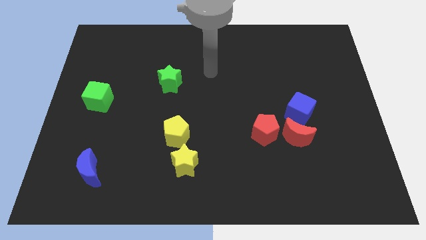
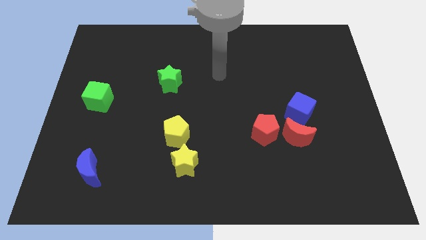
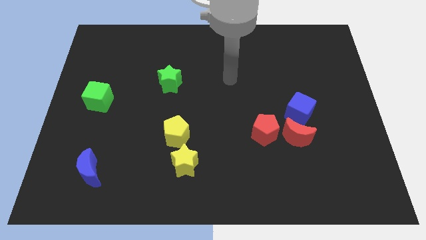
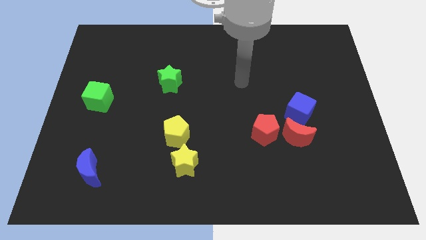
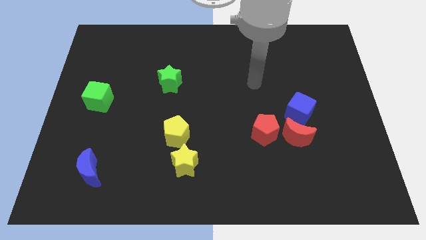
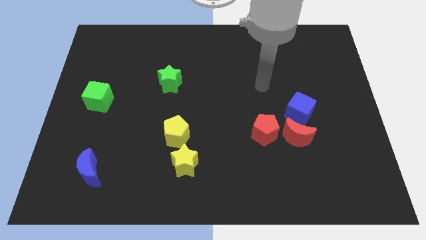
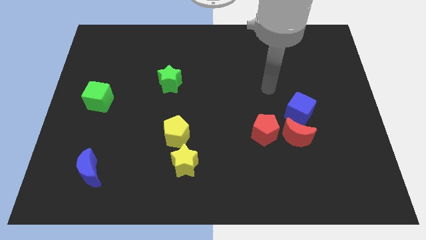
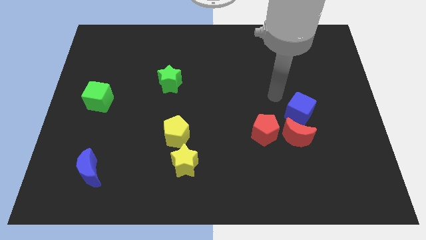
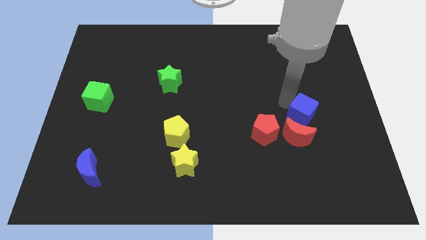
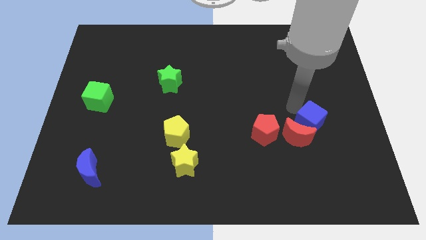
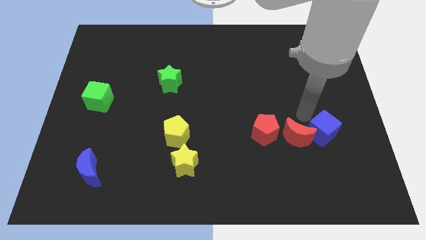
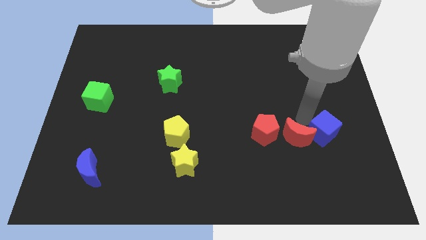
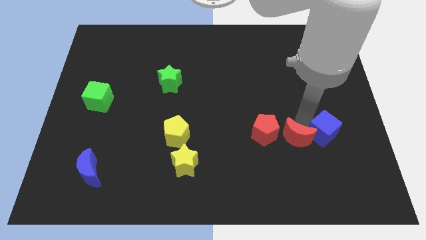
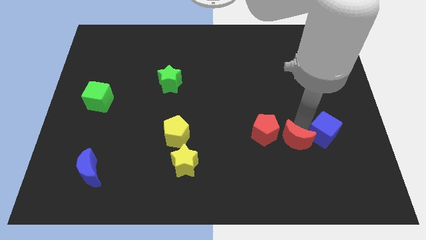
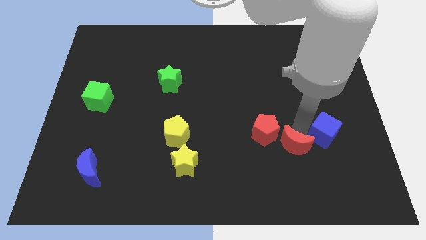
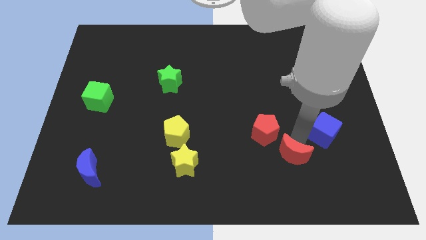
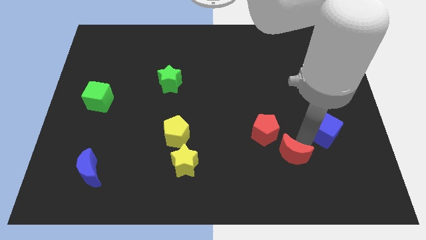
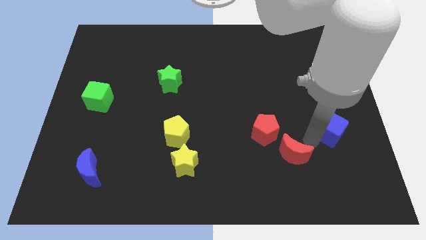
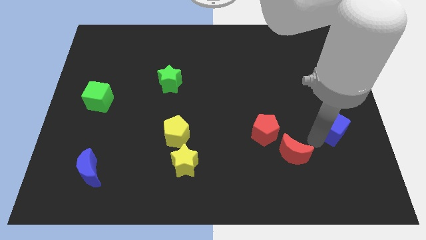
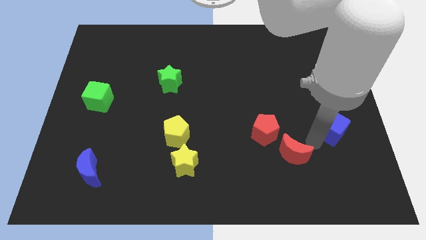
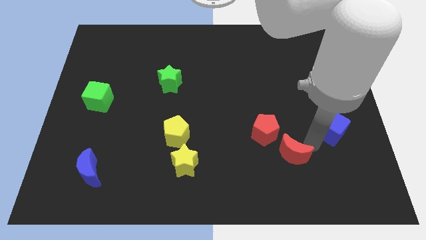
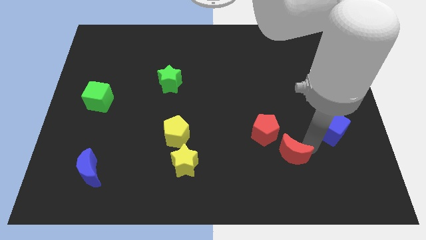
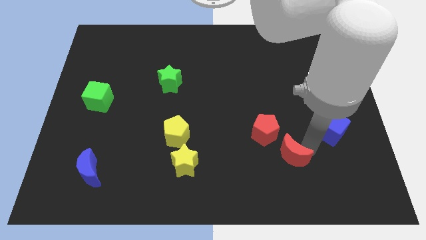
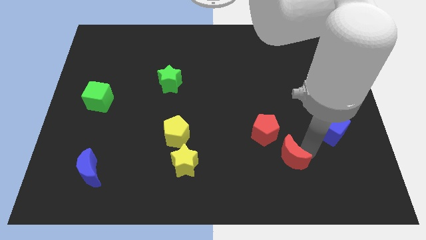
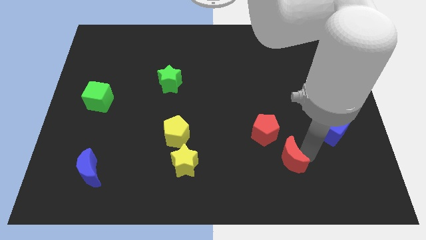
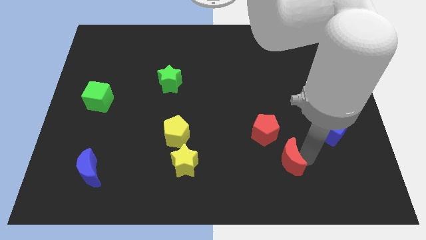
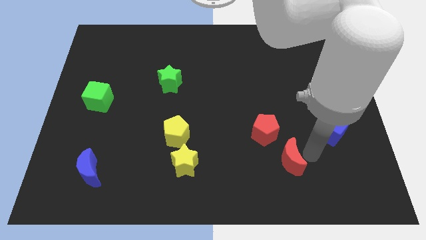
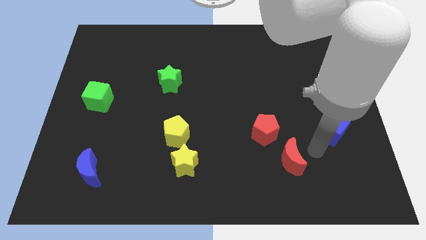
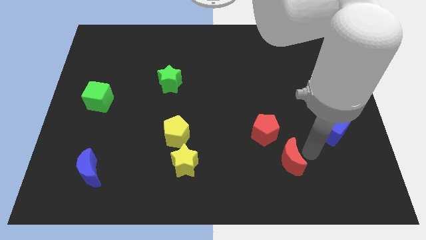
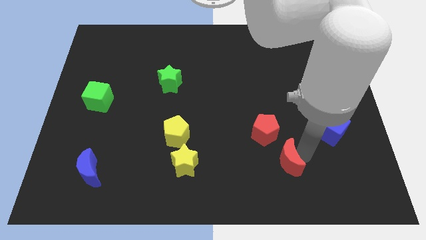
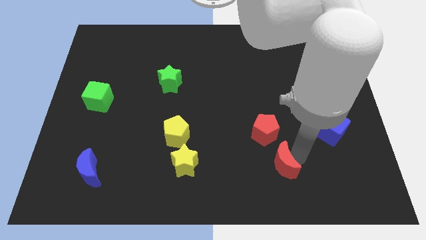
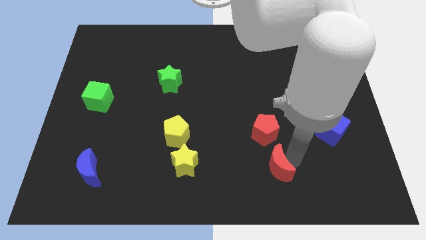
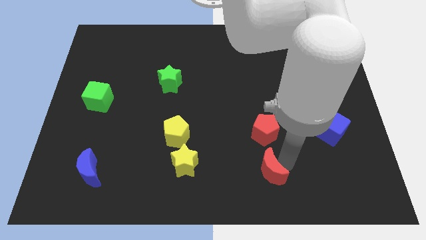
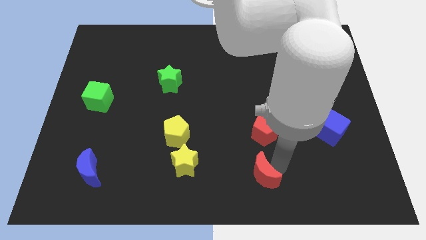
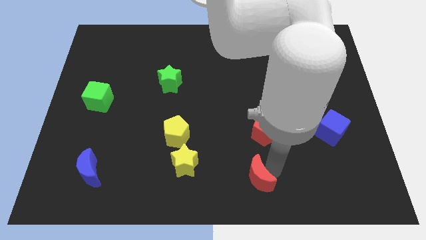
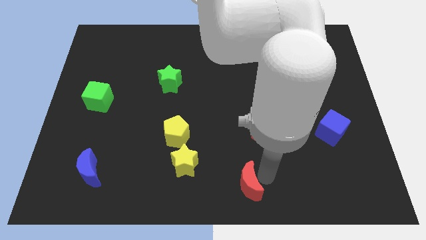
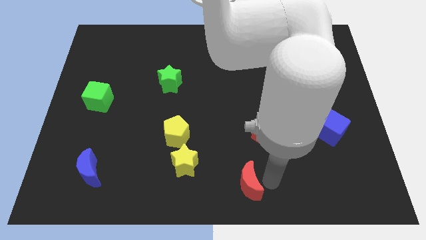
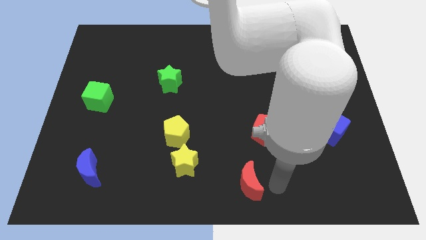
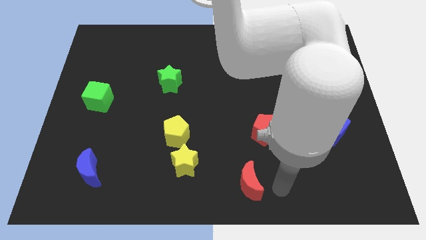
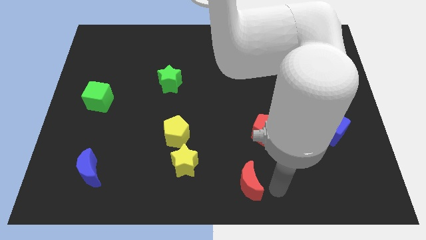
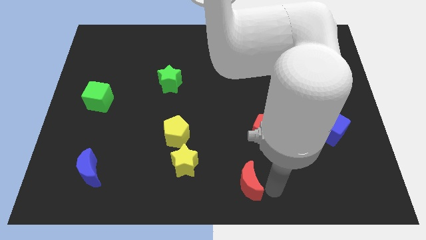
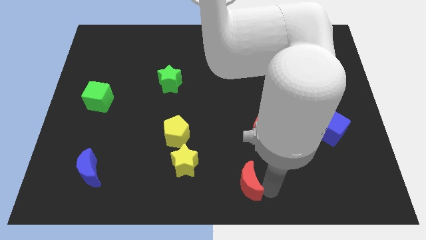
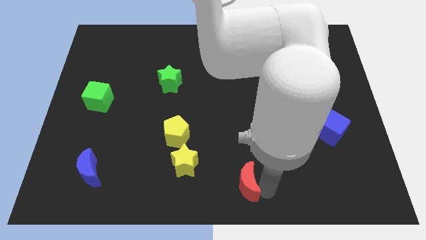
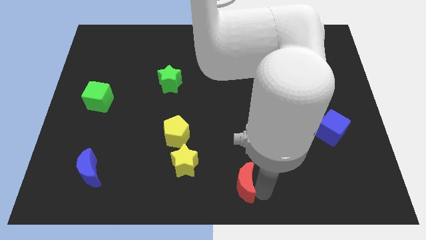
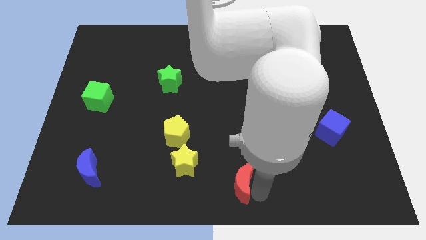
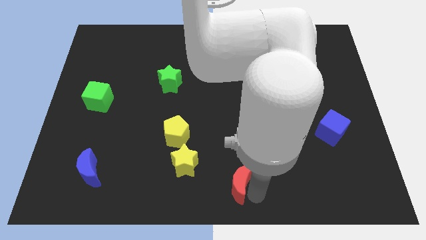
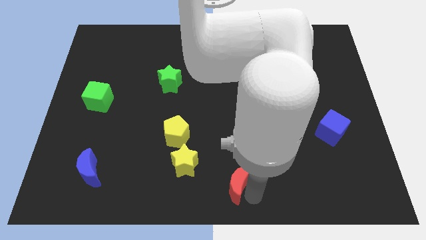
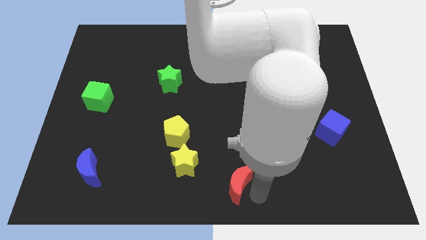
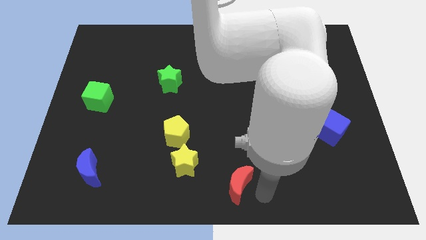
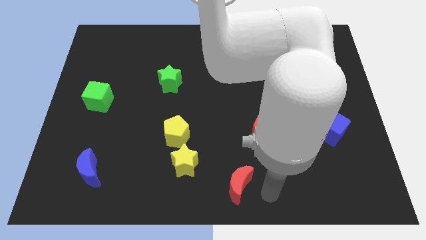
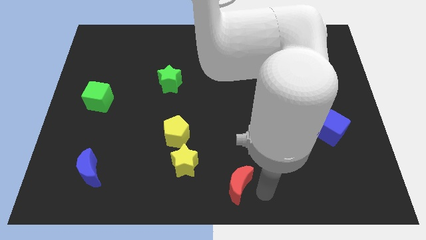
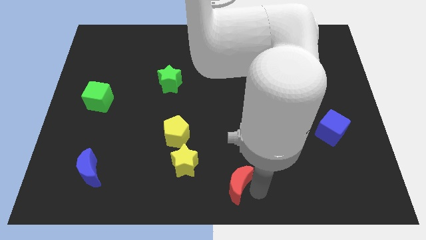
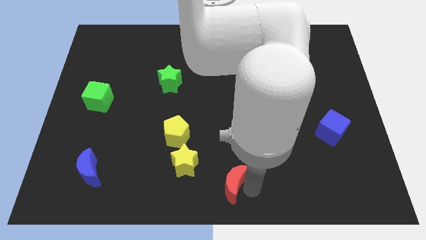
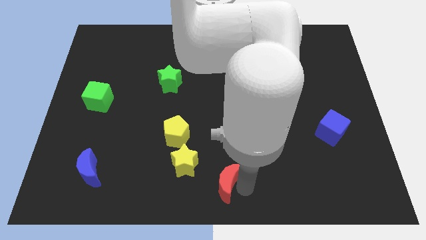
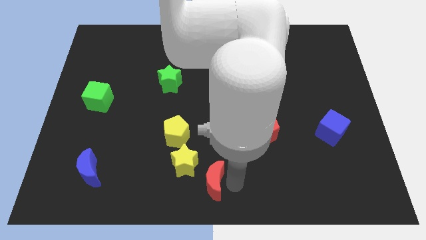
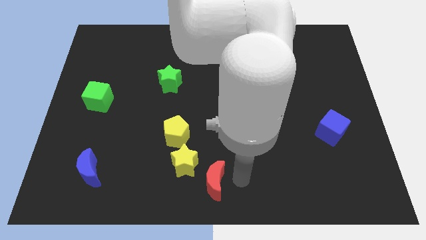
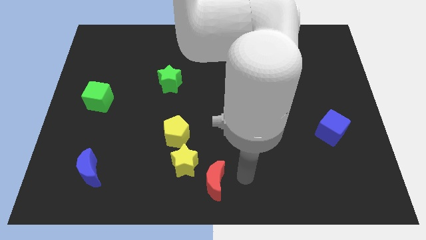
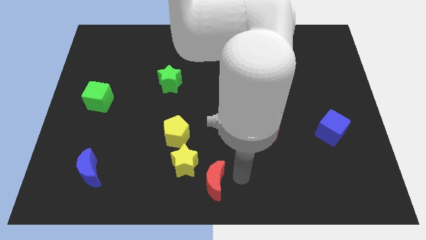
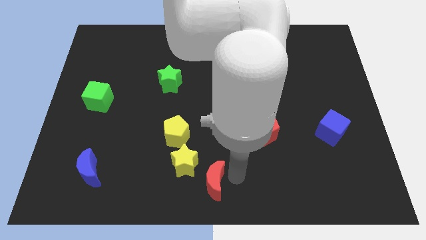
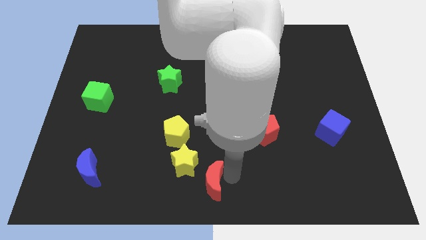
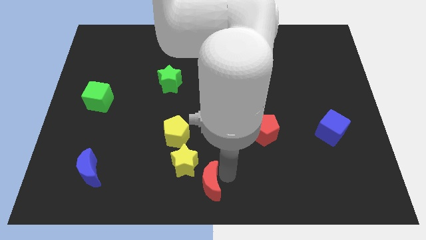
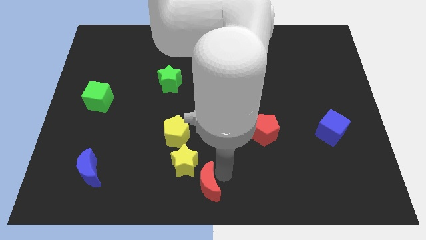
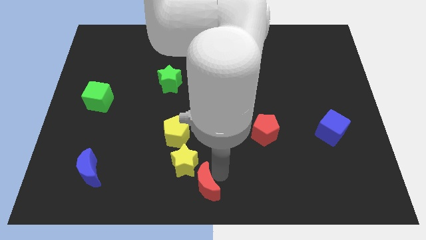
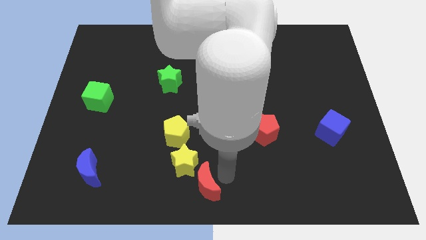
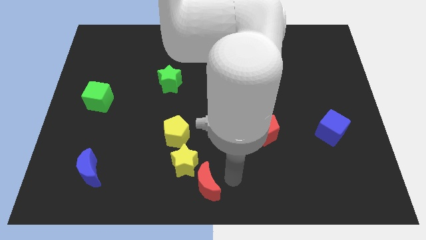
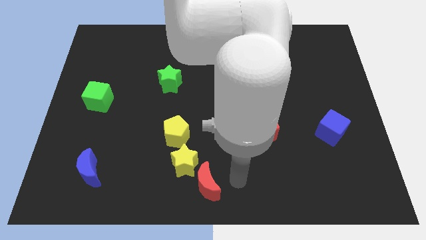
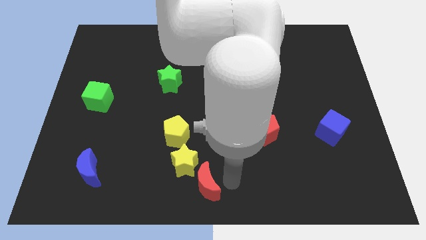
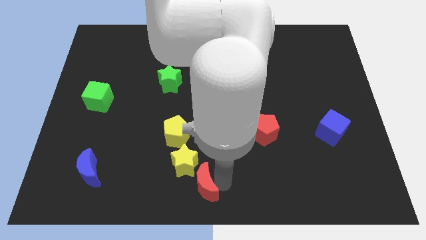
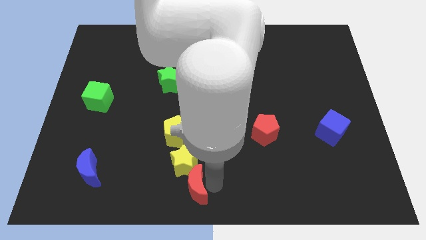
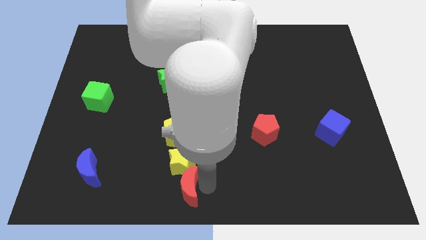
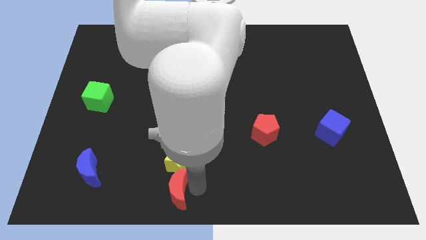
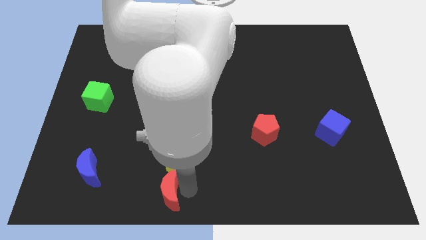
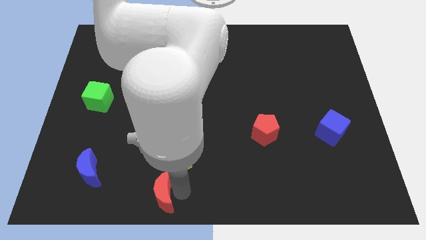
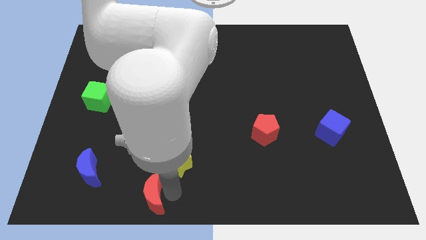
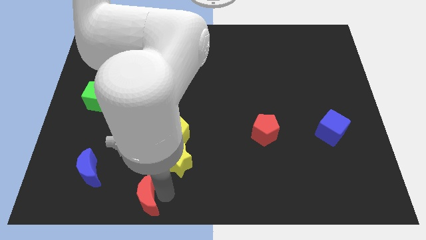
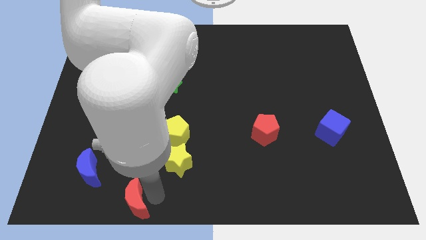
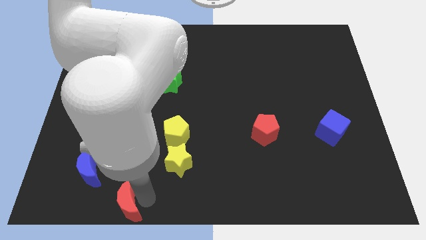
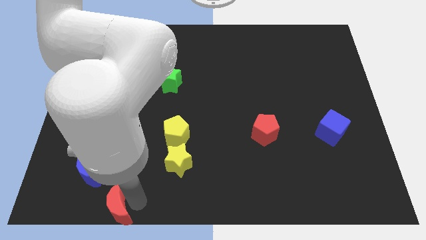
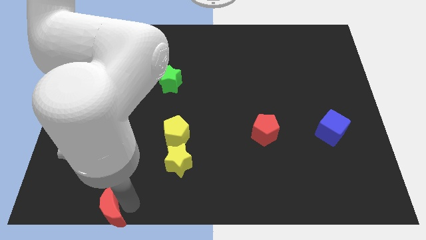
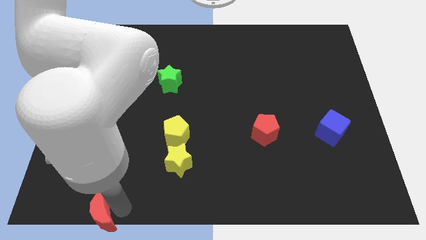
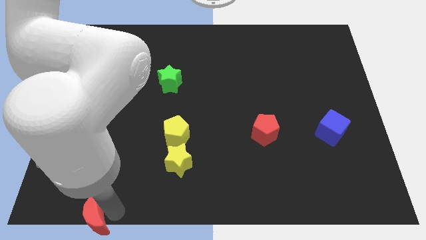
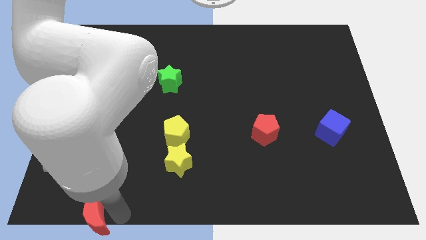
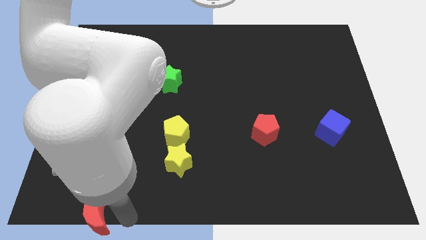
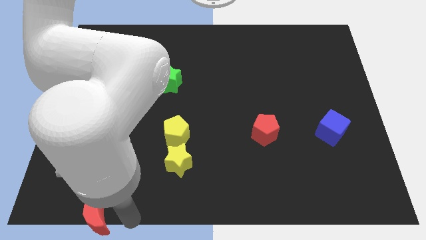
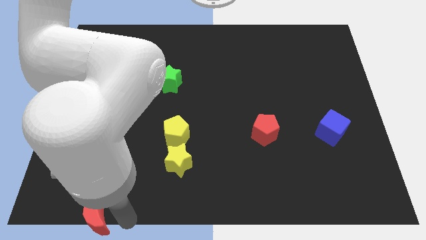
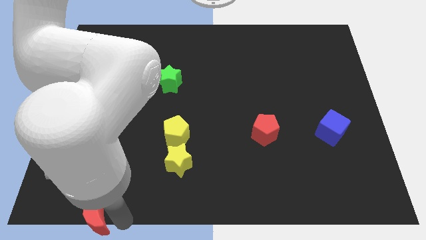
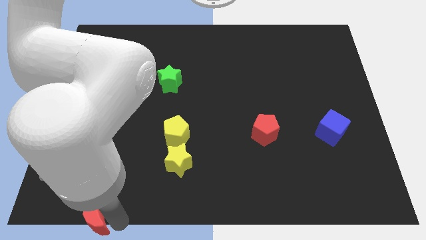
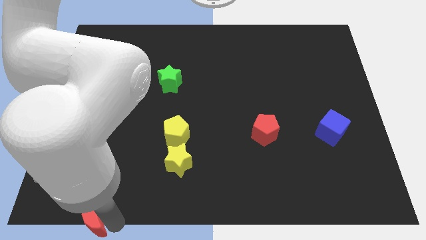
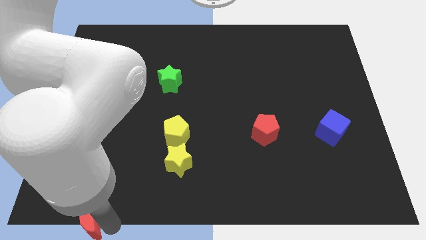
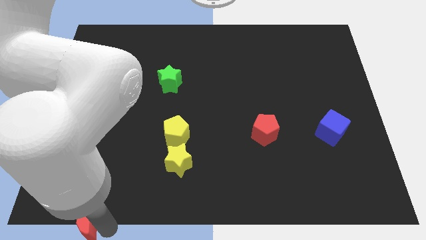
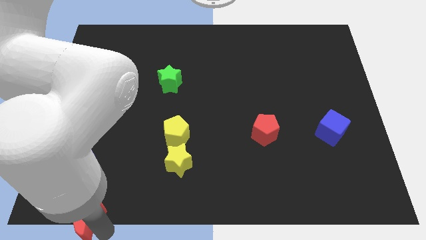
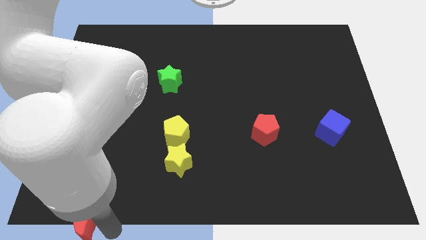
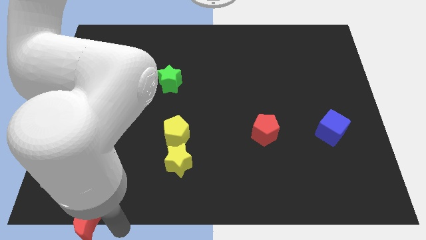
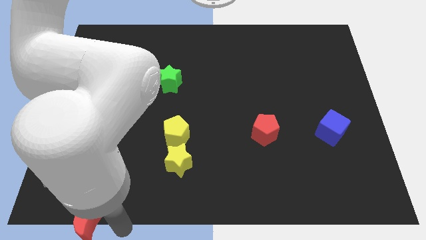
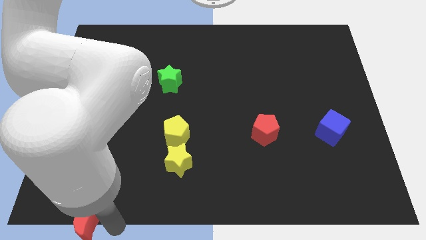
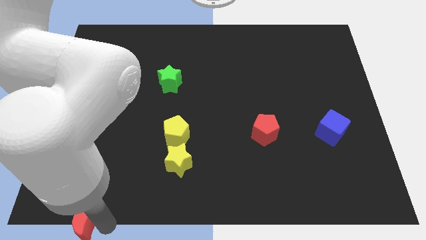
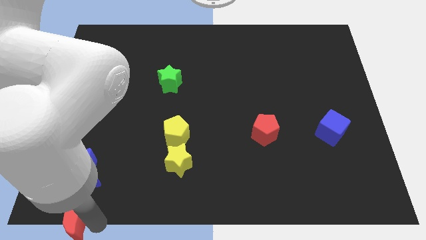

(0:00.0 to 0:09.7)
push the red moon to the bottom left of the board
